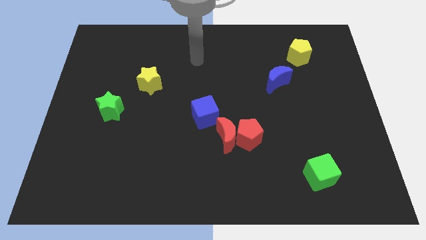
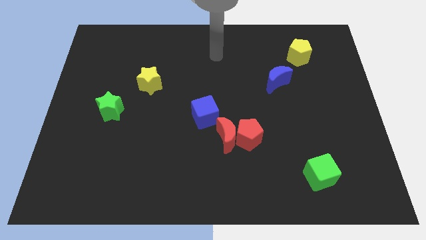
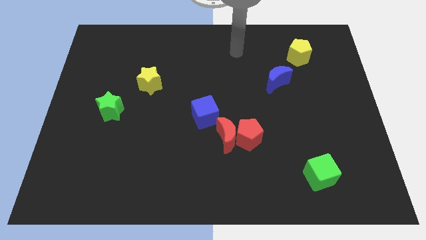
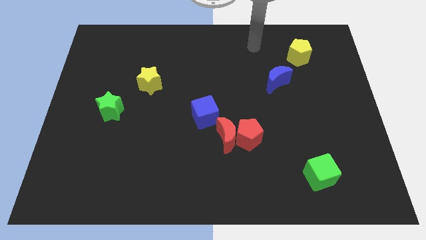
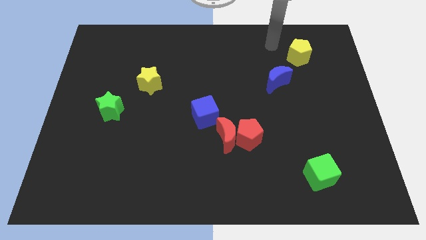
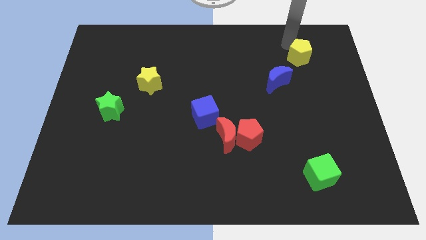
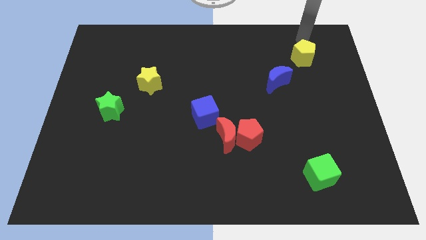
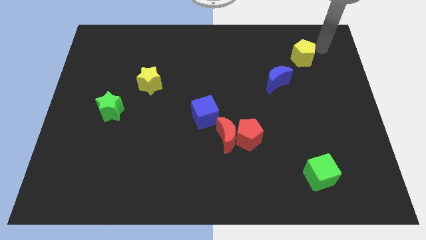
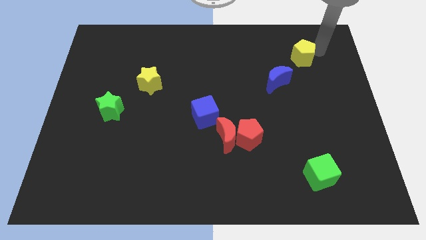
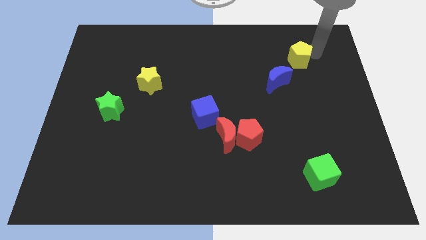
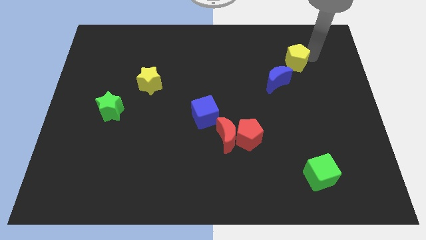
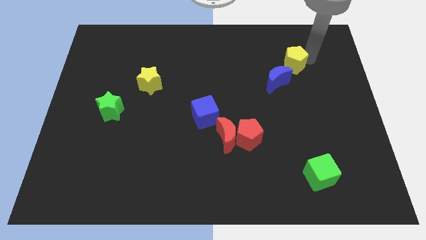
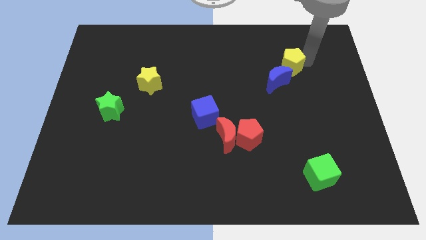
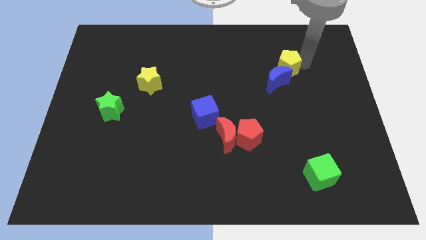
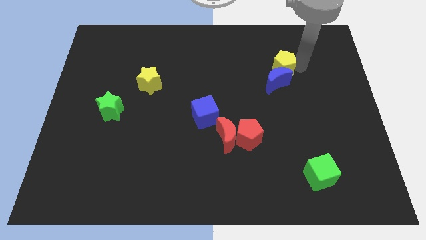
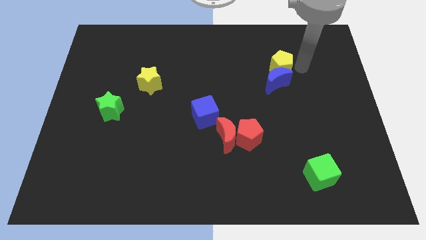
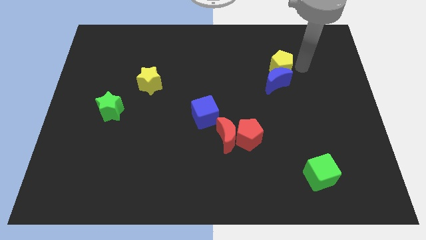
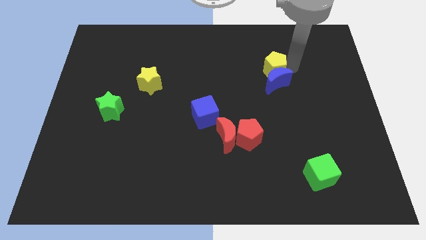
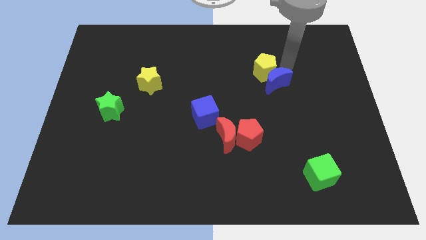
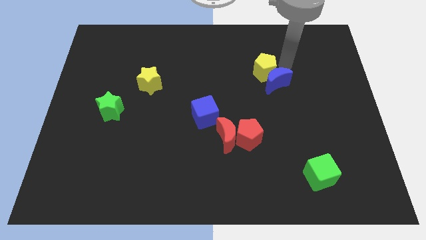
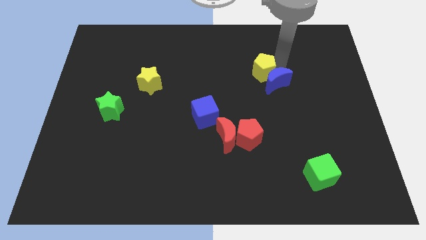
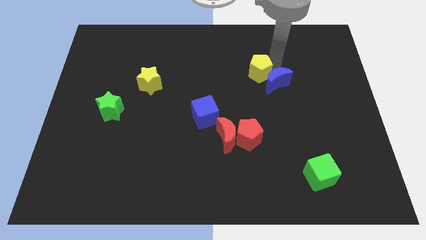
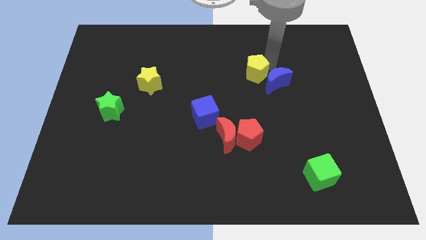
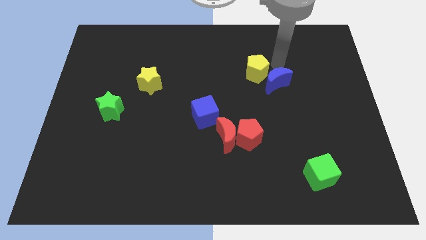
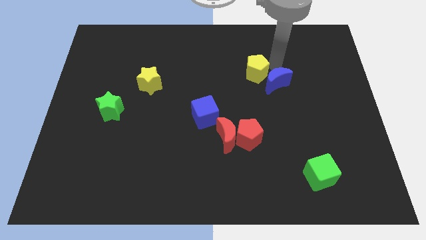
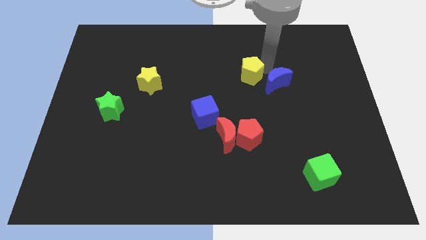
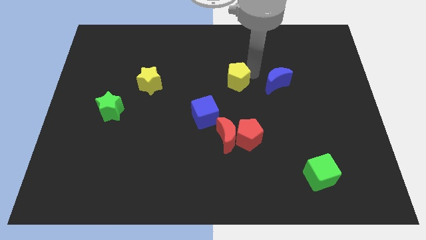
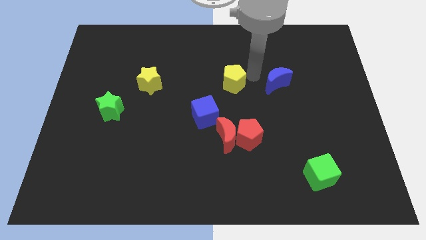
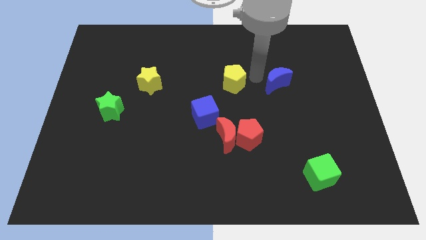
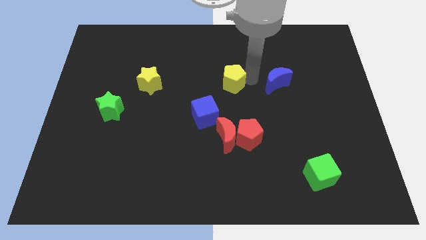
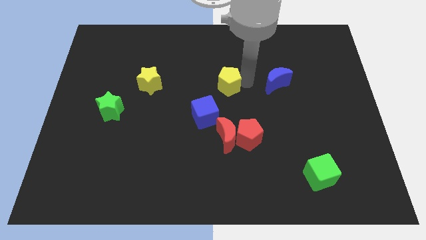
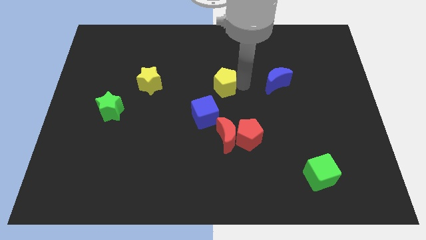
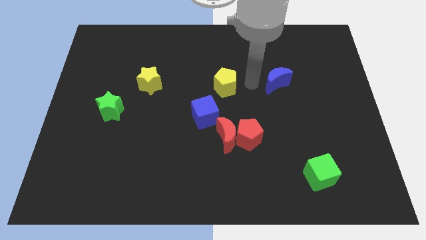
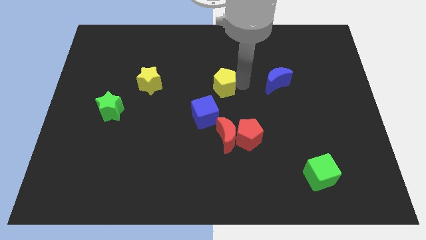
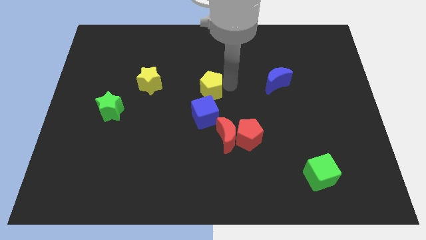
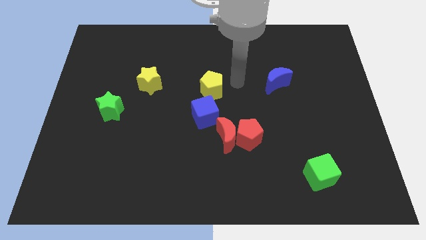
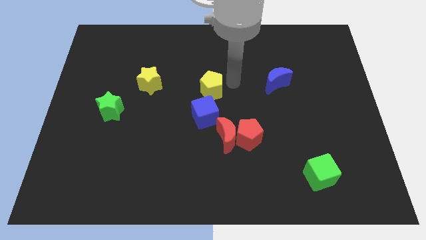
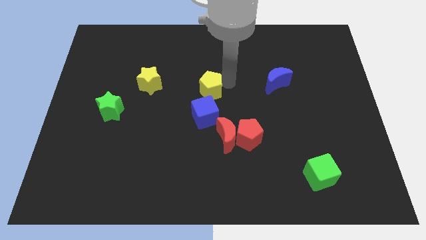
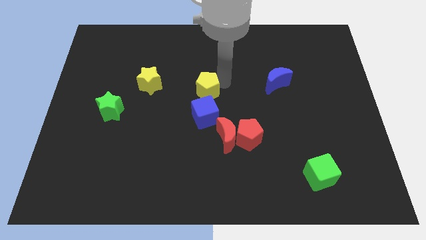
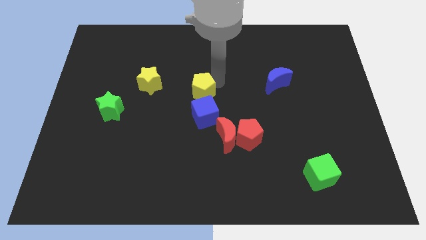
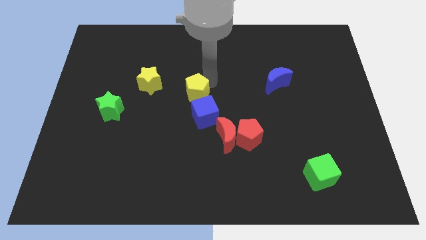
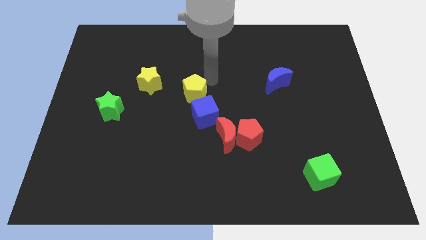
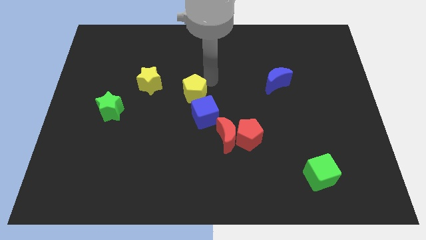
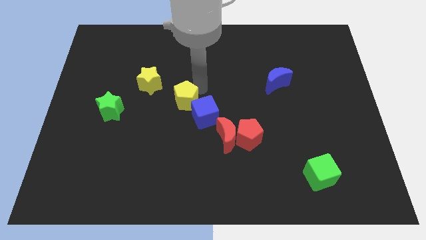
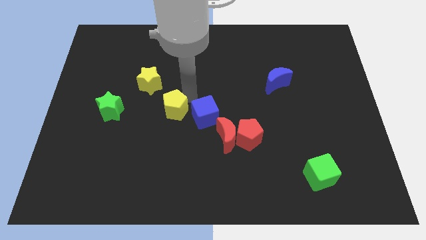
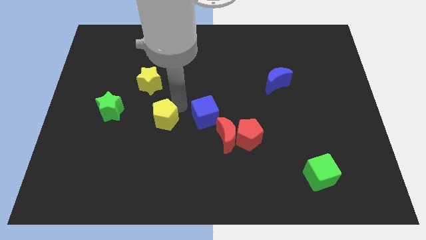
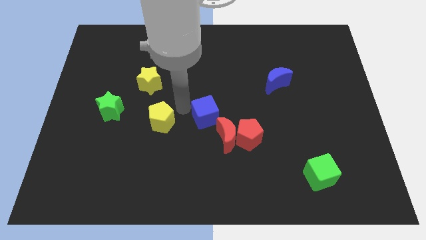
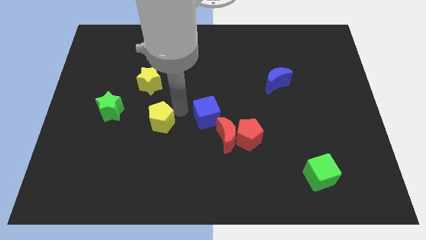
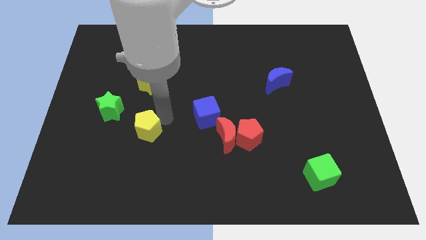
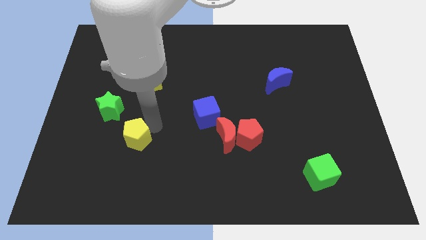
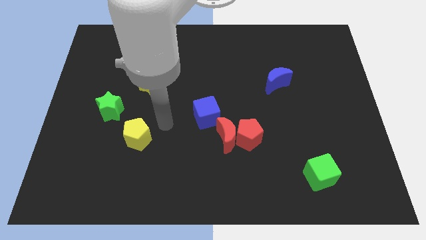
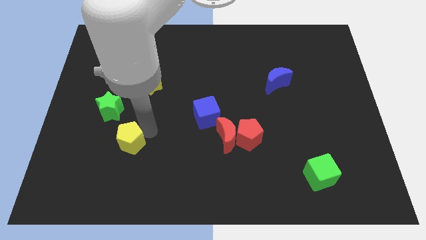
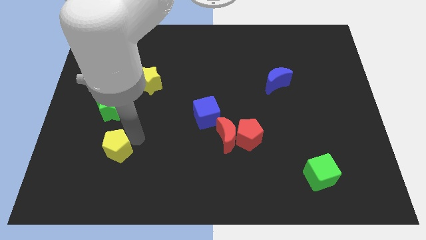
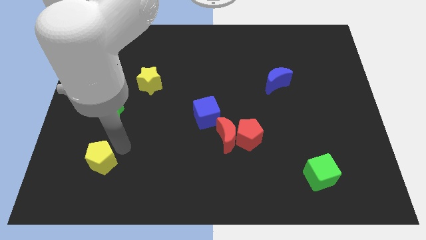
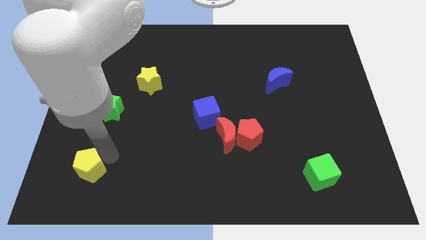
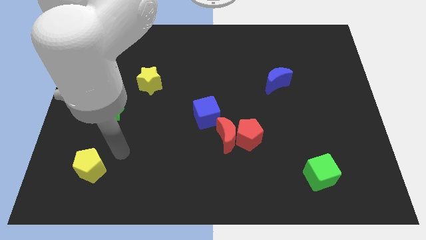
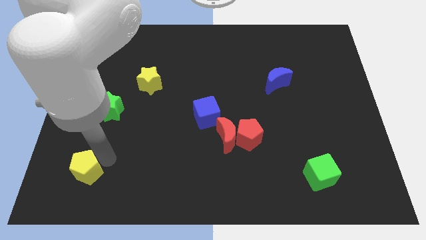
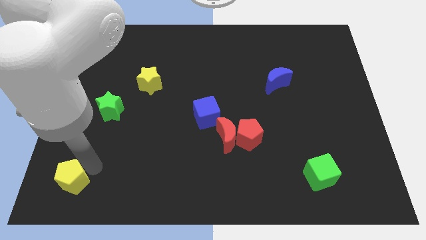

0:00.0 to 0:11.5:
move the yellow pentagon to the bottom left of the board
